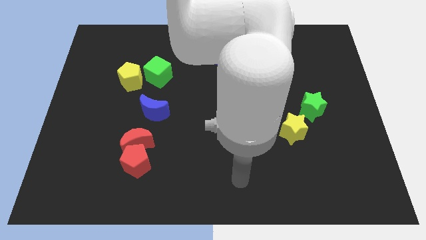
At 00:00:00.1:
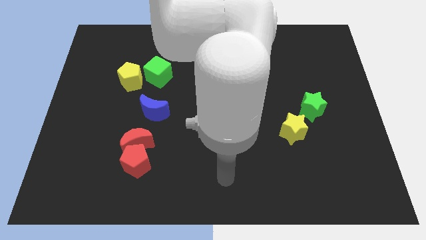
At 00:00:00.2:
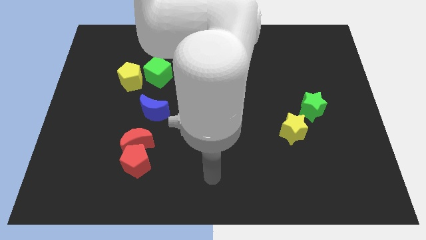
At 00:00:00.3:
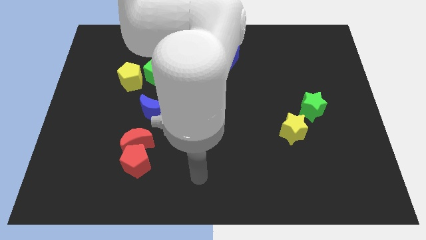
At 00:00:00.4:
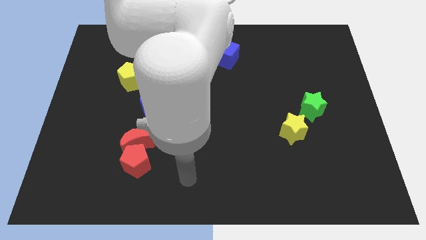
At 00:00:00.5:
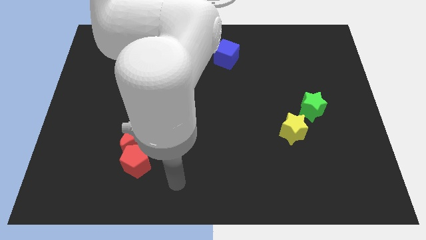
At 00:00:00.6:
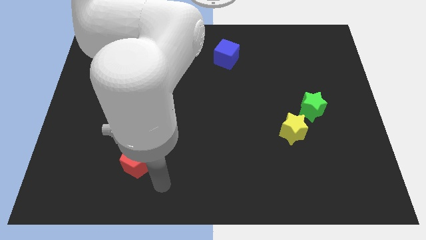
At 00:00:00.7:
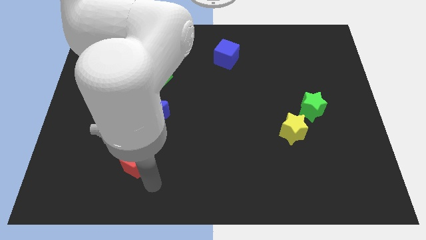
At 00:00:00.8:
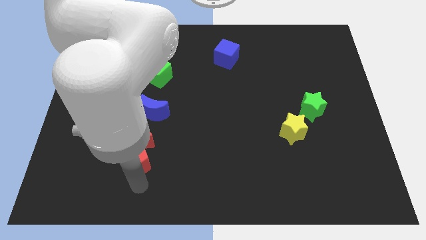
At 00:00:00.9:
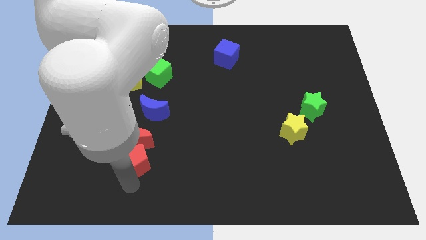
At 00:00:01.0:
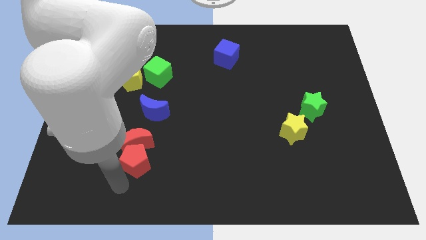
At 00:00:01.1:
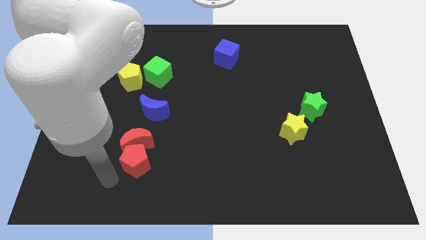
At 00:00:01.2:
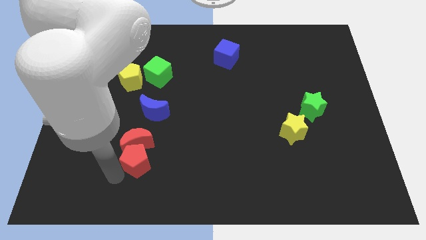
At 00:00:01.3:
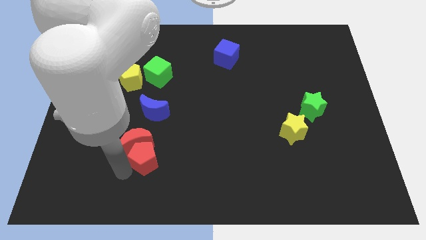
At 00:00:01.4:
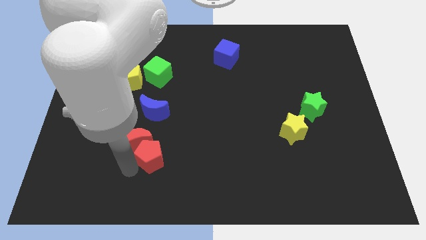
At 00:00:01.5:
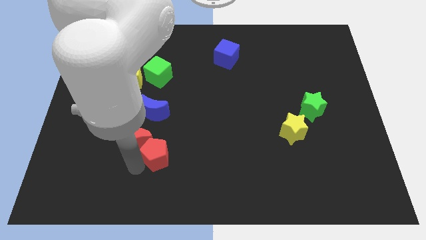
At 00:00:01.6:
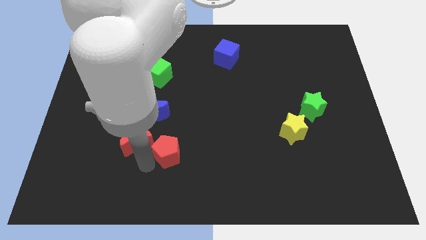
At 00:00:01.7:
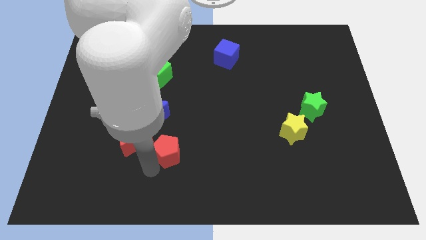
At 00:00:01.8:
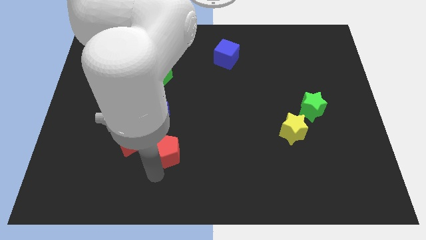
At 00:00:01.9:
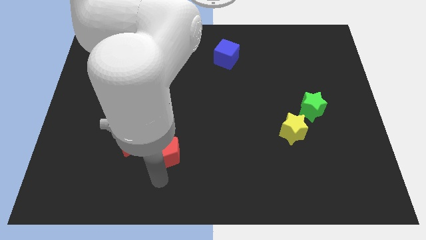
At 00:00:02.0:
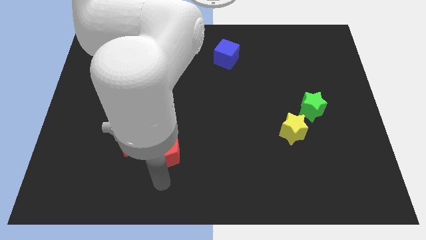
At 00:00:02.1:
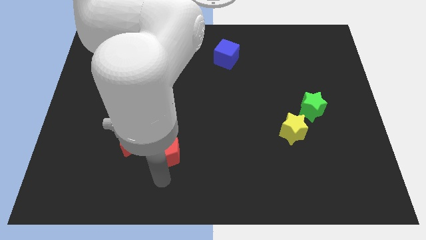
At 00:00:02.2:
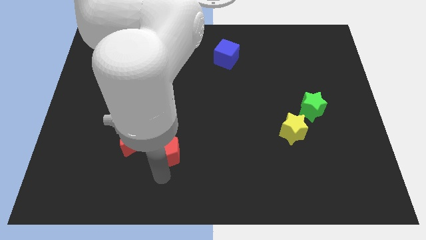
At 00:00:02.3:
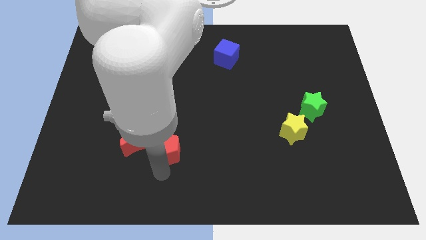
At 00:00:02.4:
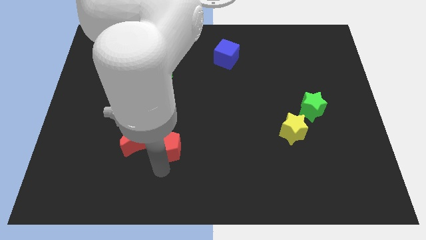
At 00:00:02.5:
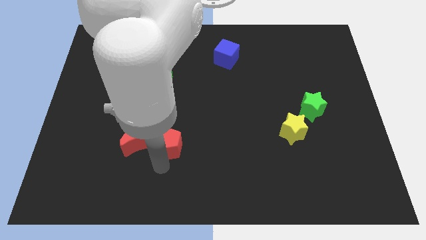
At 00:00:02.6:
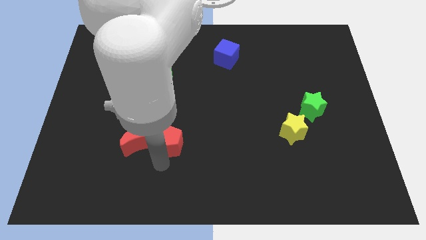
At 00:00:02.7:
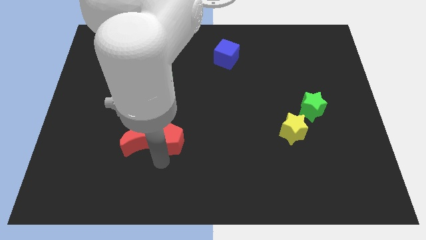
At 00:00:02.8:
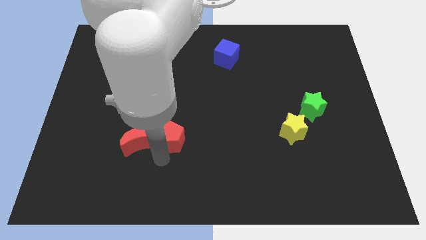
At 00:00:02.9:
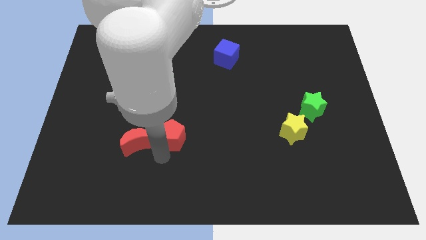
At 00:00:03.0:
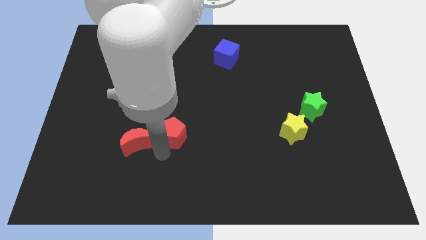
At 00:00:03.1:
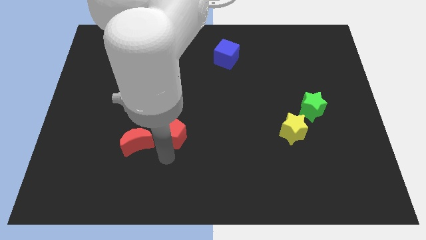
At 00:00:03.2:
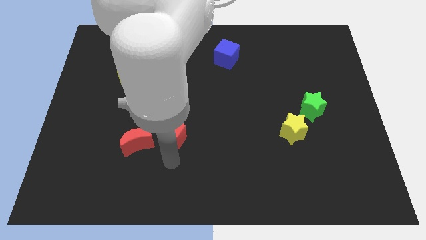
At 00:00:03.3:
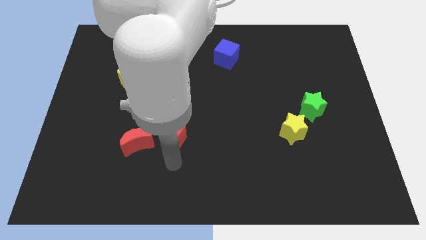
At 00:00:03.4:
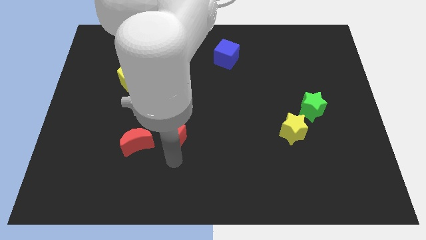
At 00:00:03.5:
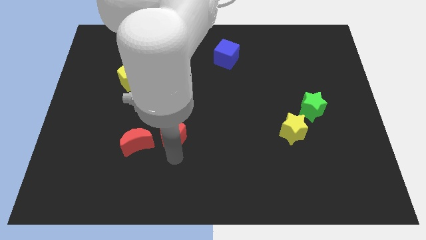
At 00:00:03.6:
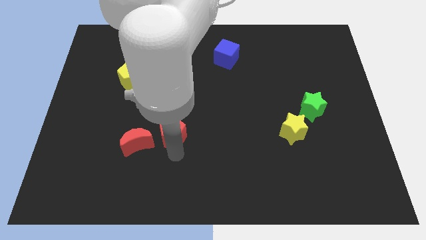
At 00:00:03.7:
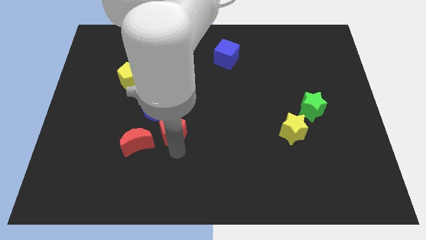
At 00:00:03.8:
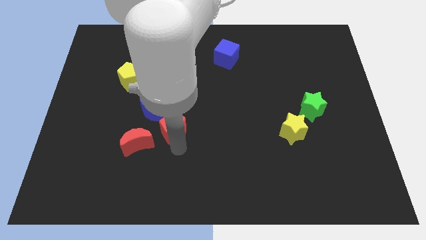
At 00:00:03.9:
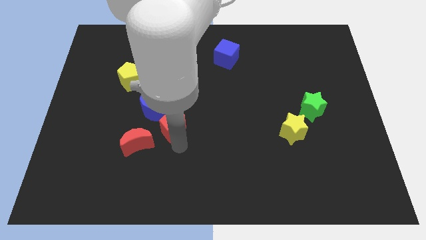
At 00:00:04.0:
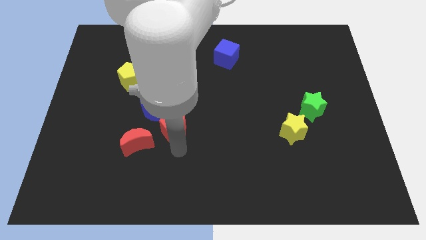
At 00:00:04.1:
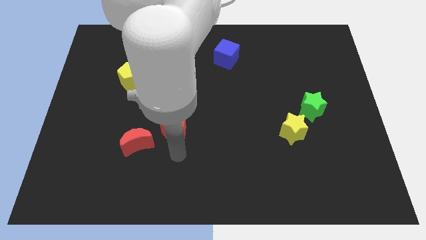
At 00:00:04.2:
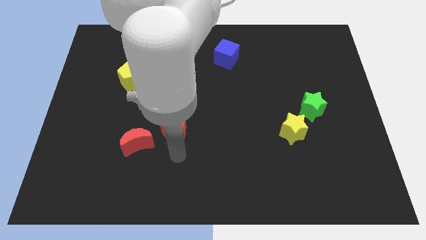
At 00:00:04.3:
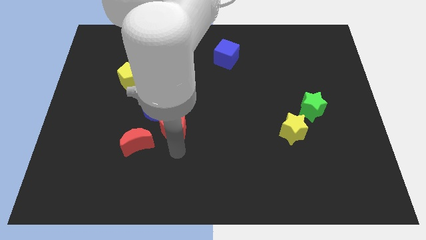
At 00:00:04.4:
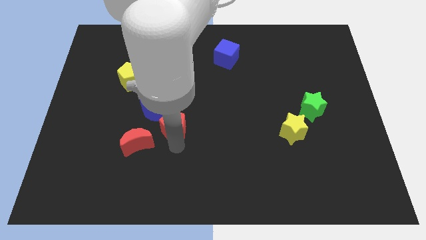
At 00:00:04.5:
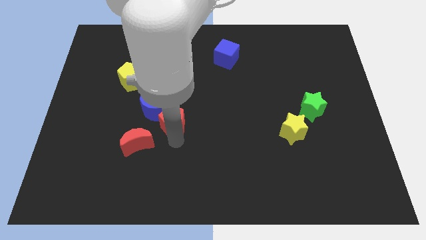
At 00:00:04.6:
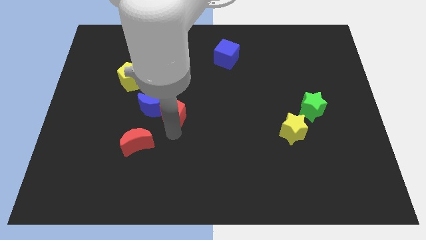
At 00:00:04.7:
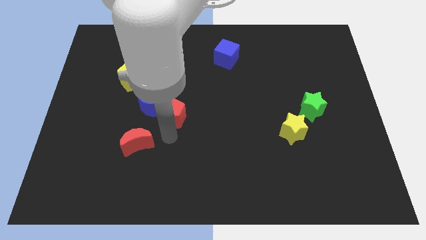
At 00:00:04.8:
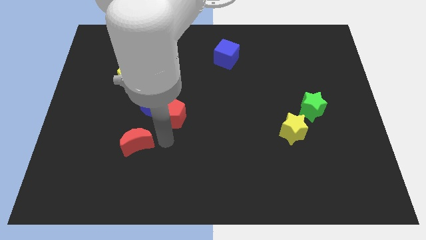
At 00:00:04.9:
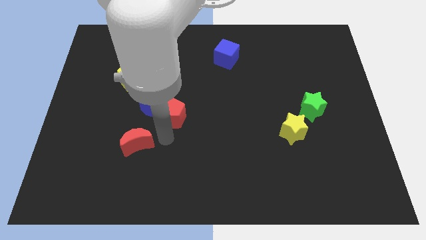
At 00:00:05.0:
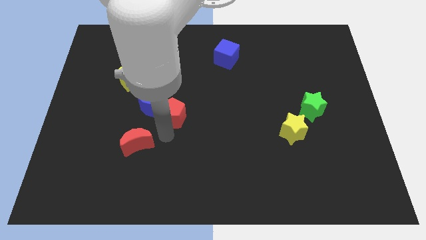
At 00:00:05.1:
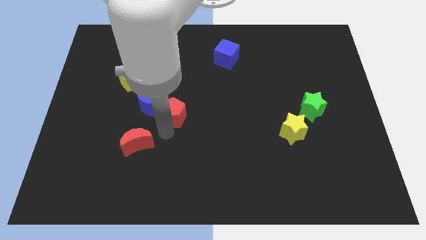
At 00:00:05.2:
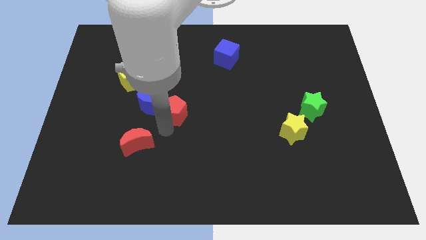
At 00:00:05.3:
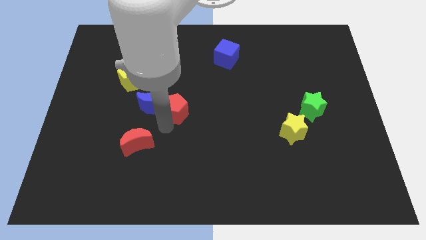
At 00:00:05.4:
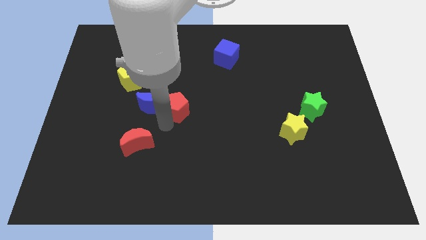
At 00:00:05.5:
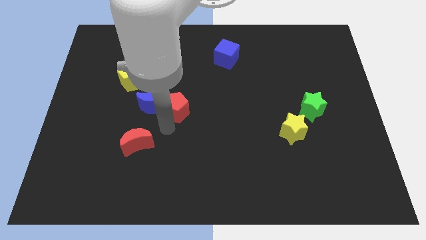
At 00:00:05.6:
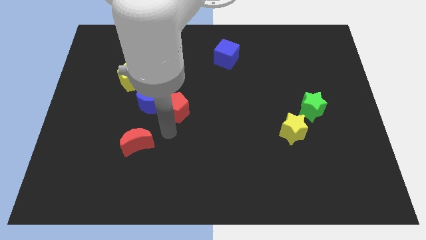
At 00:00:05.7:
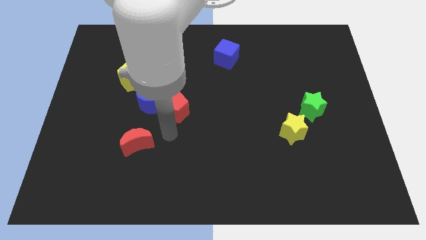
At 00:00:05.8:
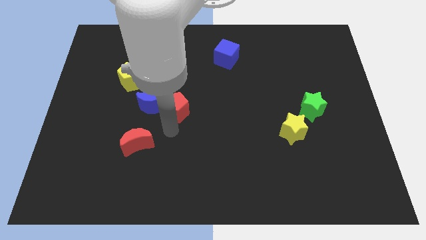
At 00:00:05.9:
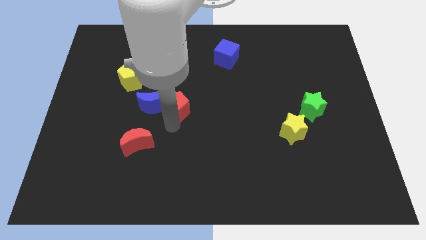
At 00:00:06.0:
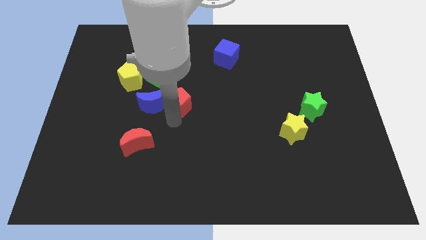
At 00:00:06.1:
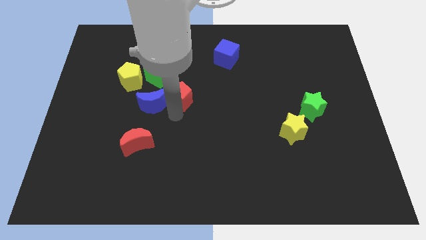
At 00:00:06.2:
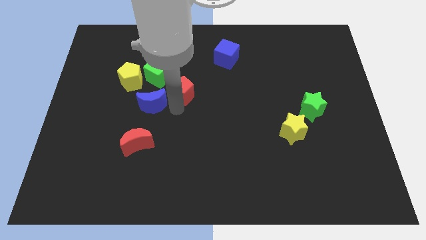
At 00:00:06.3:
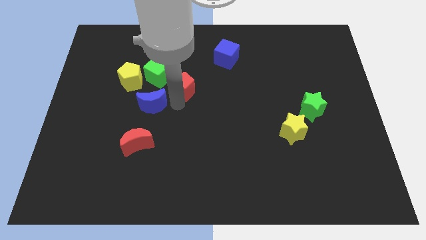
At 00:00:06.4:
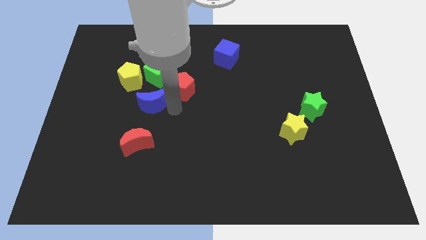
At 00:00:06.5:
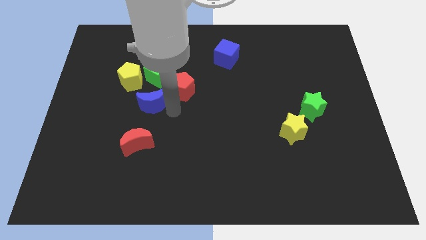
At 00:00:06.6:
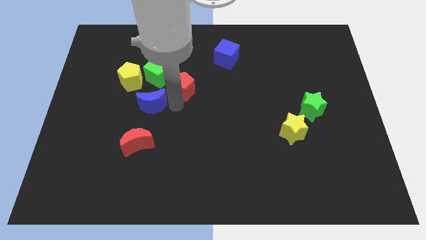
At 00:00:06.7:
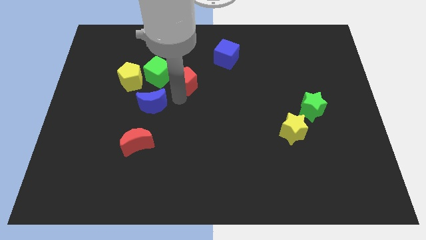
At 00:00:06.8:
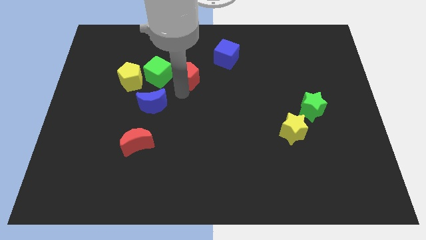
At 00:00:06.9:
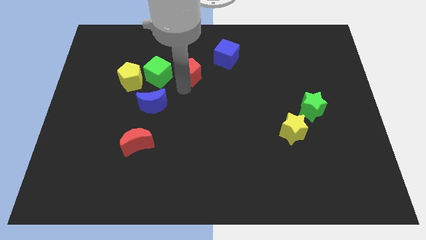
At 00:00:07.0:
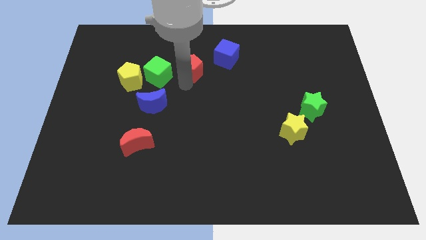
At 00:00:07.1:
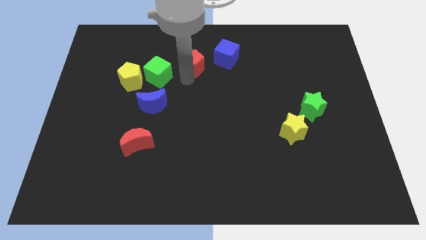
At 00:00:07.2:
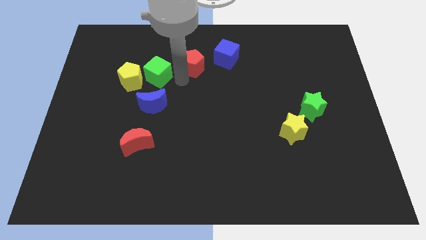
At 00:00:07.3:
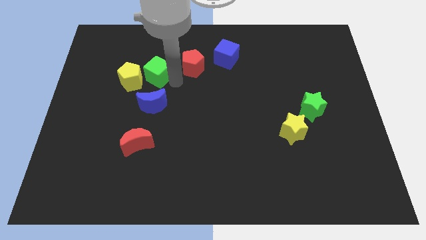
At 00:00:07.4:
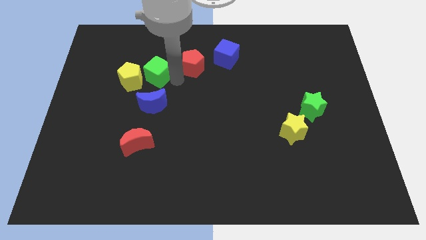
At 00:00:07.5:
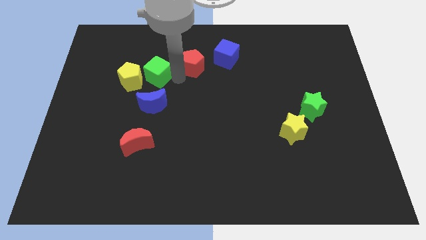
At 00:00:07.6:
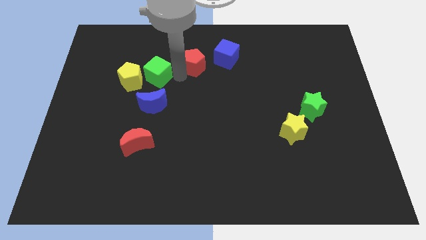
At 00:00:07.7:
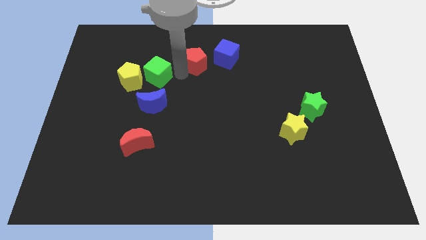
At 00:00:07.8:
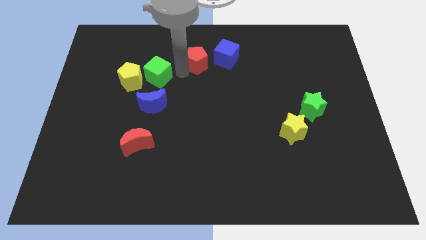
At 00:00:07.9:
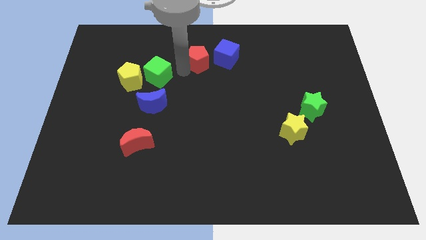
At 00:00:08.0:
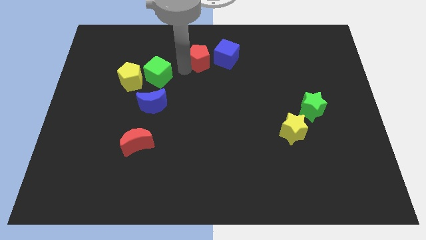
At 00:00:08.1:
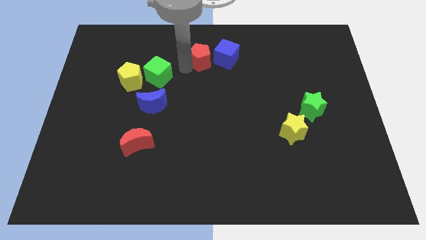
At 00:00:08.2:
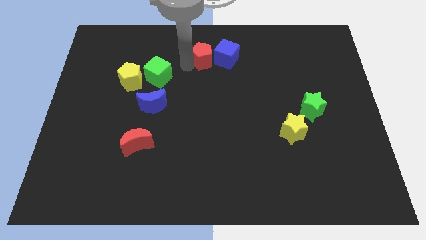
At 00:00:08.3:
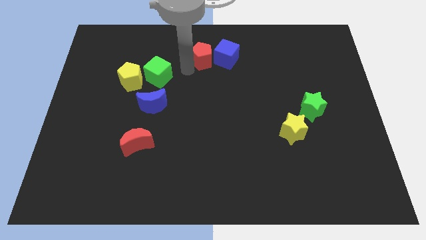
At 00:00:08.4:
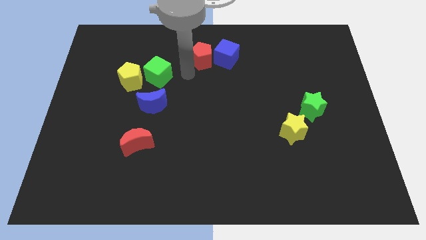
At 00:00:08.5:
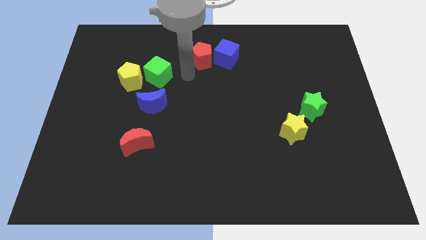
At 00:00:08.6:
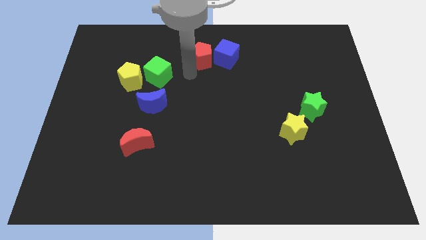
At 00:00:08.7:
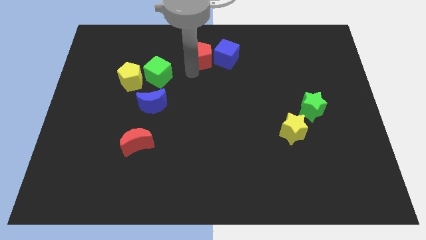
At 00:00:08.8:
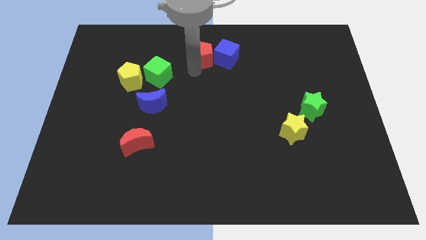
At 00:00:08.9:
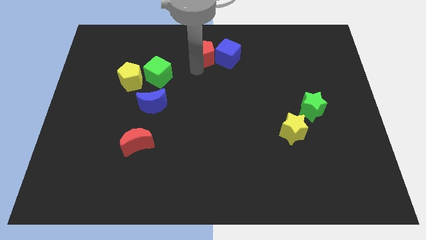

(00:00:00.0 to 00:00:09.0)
slide the red pentagon to the top
